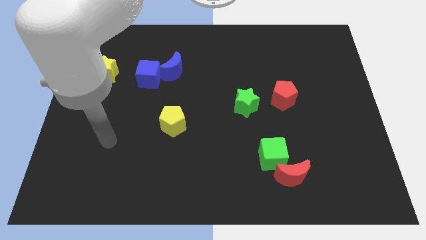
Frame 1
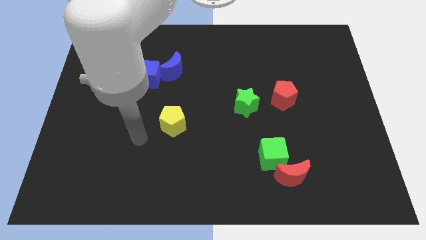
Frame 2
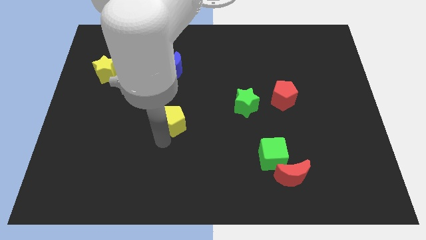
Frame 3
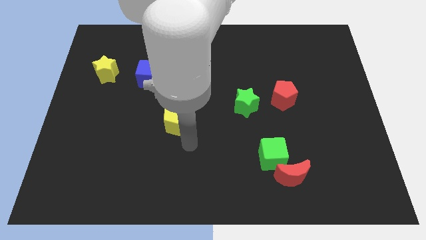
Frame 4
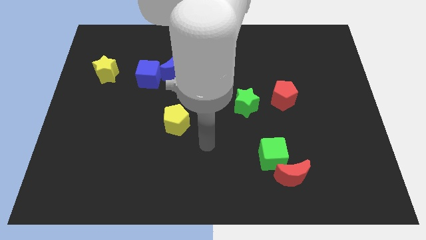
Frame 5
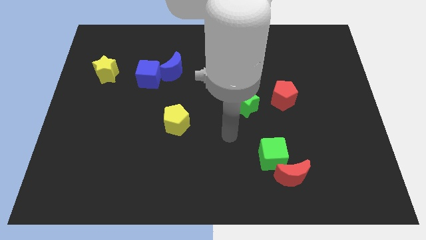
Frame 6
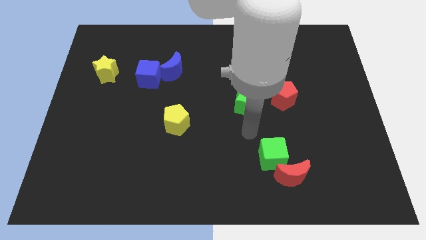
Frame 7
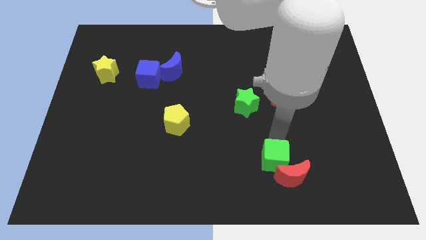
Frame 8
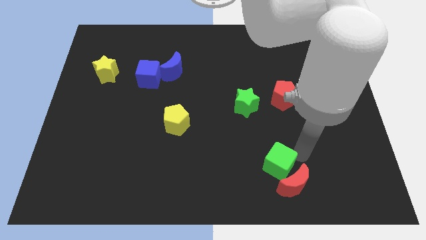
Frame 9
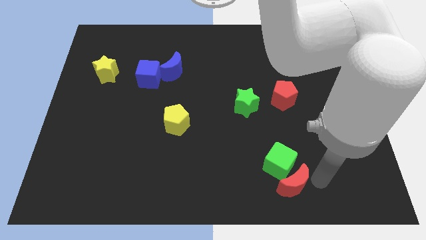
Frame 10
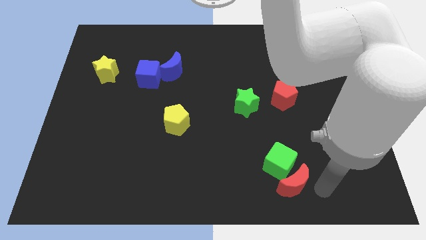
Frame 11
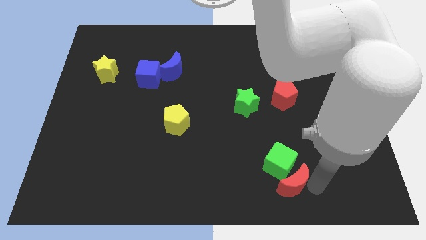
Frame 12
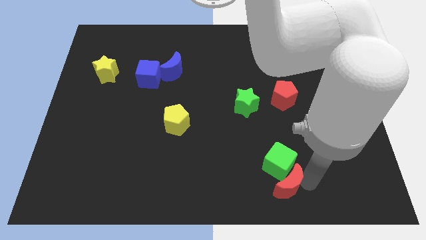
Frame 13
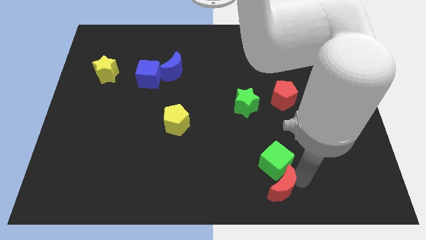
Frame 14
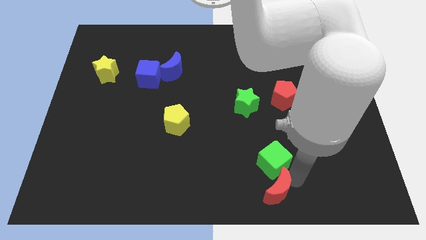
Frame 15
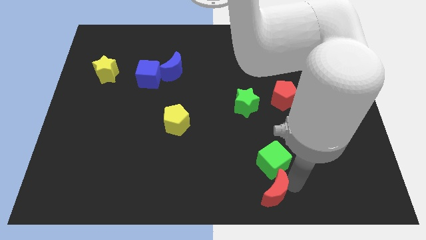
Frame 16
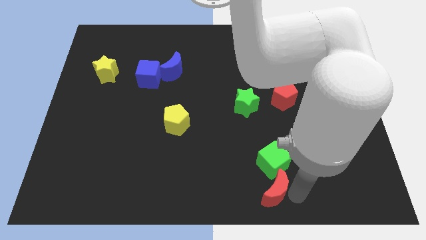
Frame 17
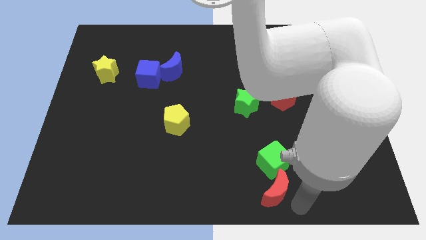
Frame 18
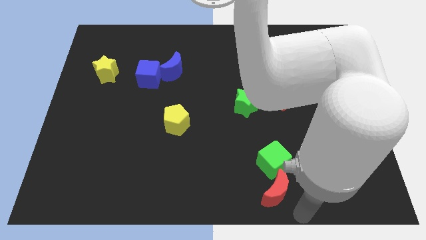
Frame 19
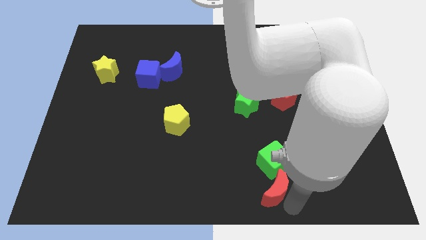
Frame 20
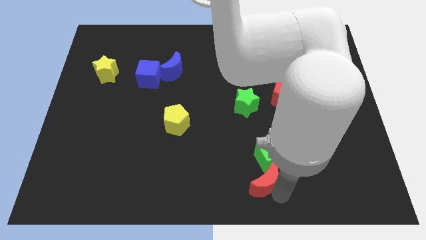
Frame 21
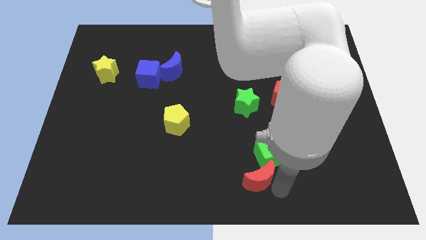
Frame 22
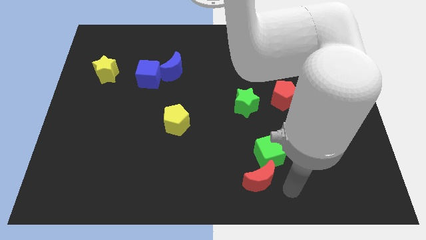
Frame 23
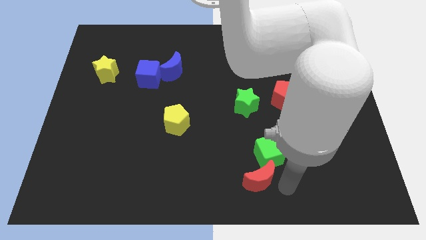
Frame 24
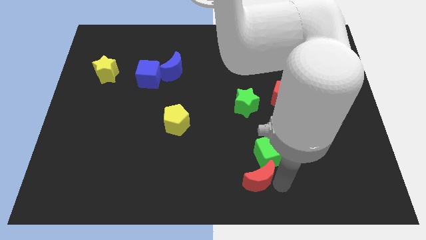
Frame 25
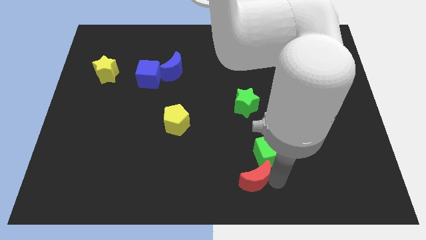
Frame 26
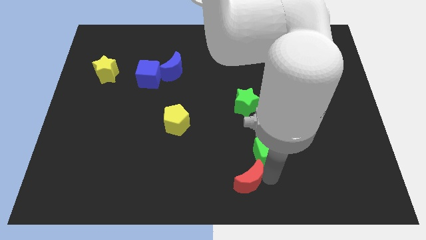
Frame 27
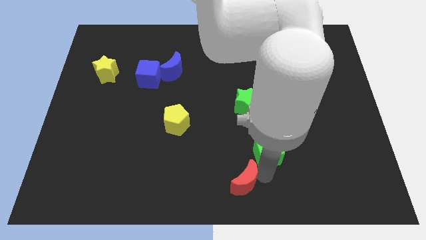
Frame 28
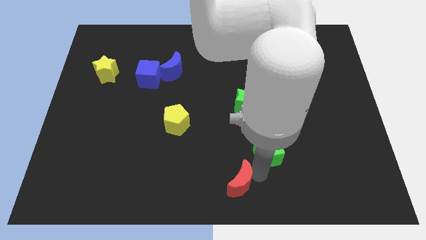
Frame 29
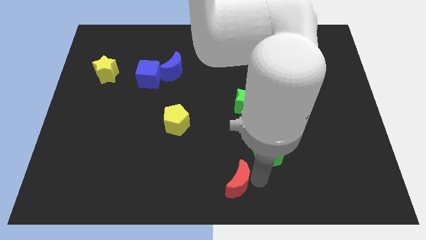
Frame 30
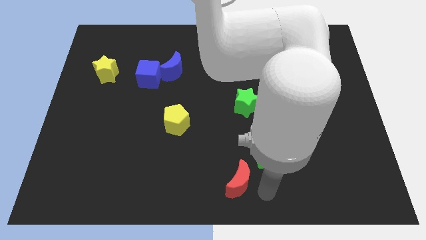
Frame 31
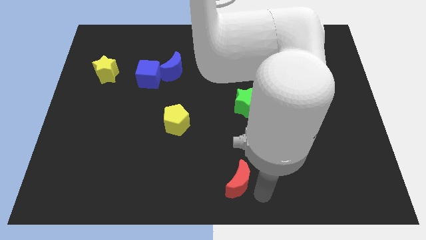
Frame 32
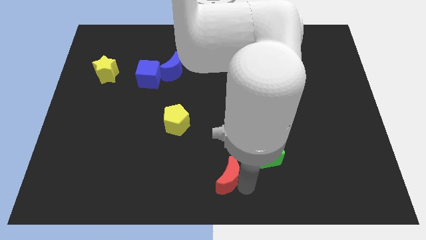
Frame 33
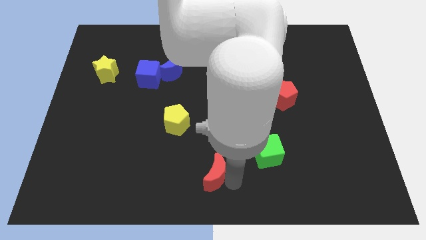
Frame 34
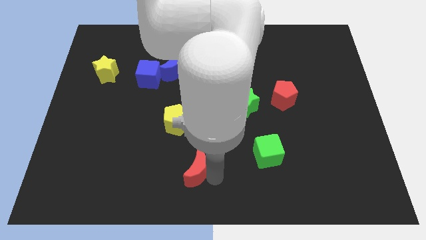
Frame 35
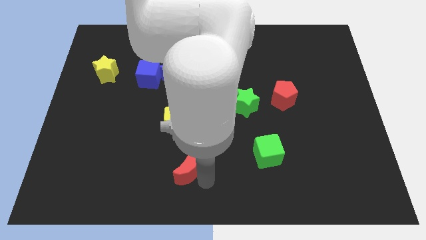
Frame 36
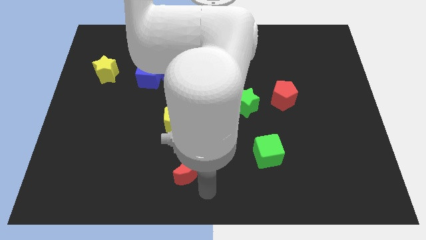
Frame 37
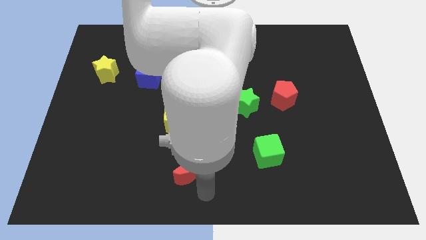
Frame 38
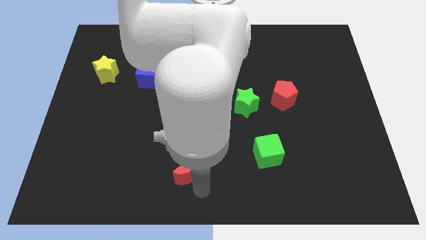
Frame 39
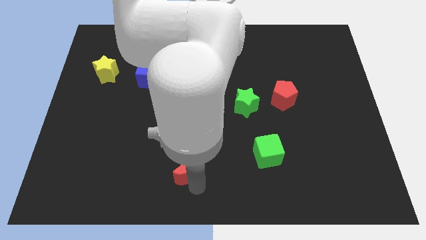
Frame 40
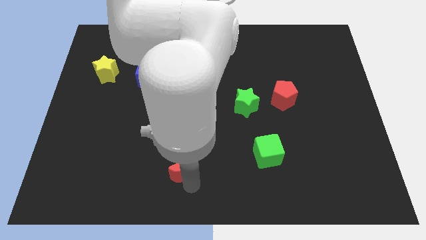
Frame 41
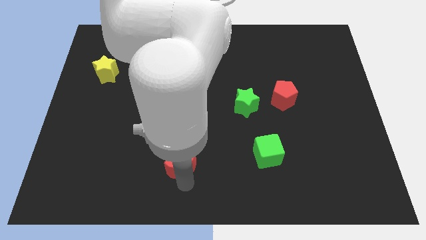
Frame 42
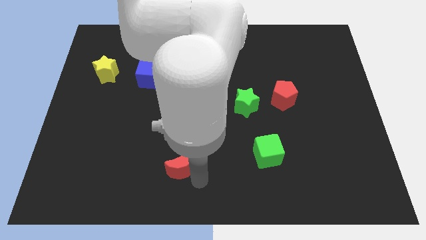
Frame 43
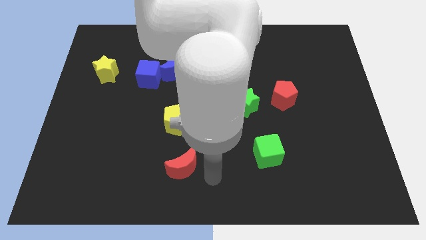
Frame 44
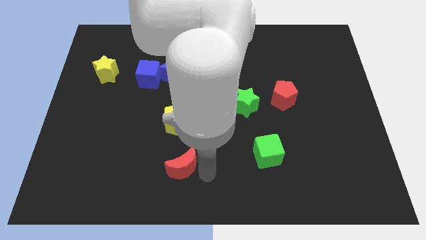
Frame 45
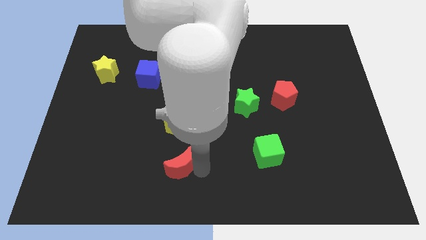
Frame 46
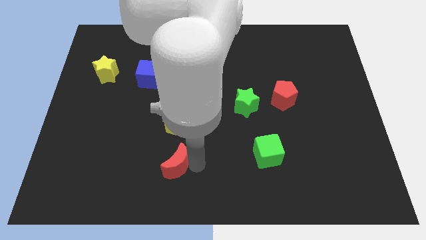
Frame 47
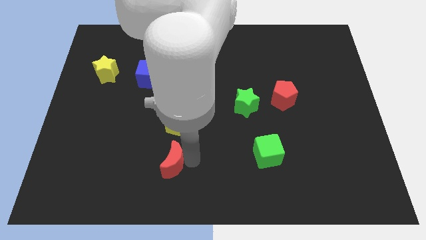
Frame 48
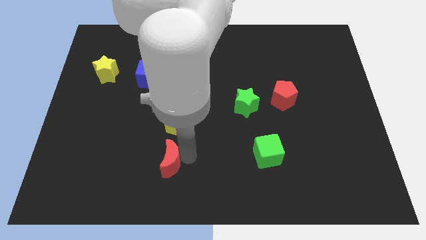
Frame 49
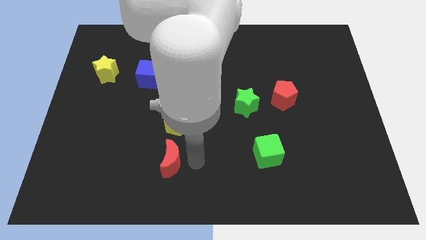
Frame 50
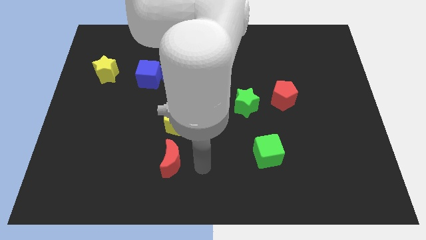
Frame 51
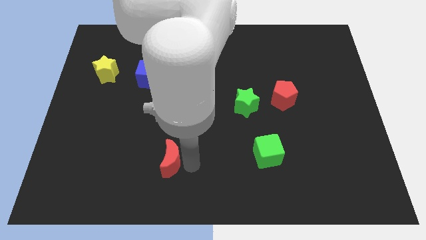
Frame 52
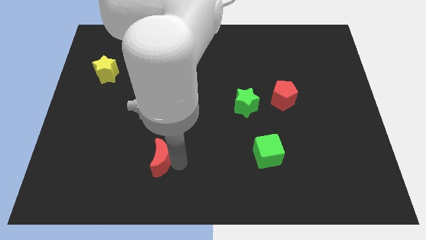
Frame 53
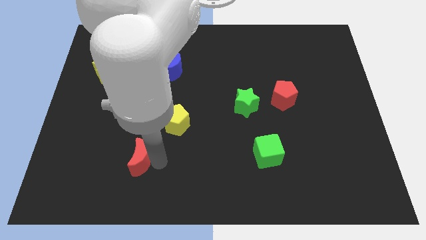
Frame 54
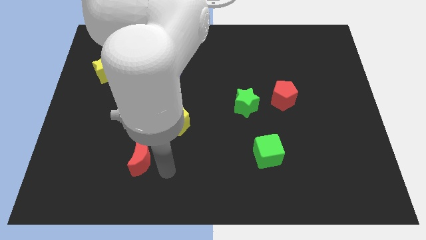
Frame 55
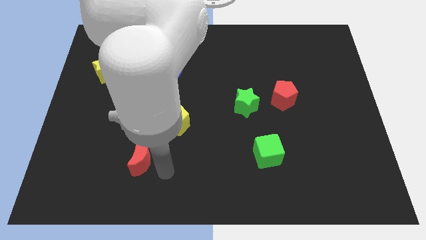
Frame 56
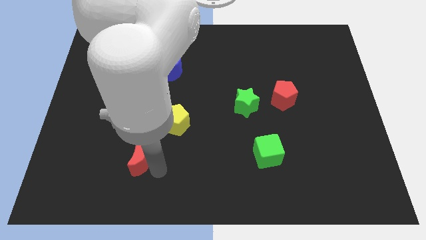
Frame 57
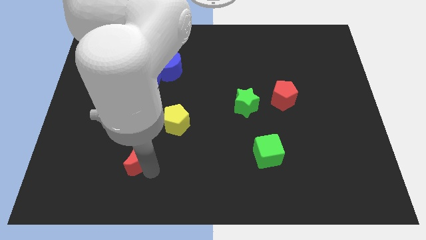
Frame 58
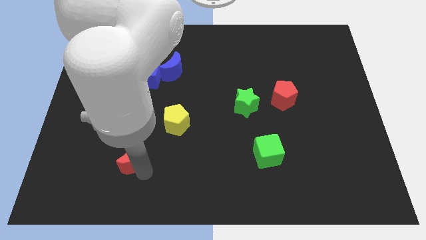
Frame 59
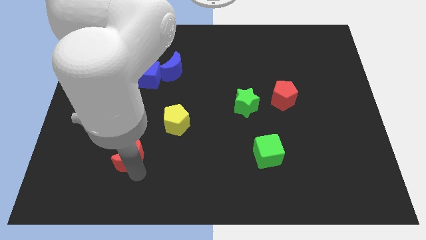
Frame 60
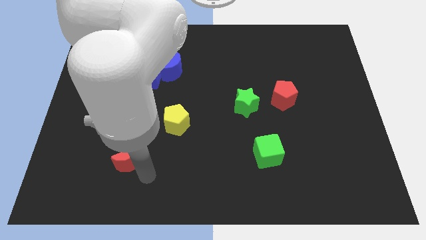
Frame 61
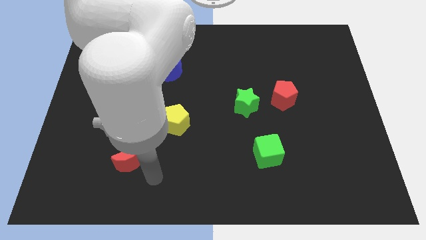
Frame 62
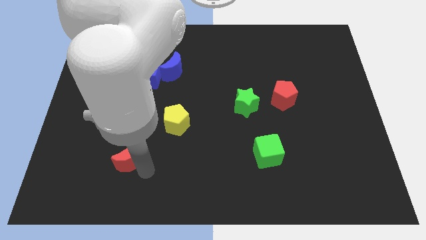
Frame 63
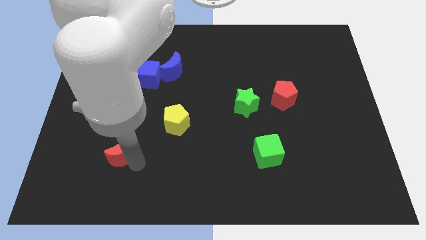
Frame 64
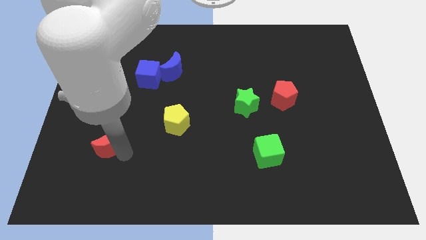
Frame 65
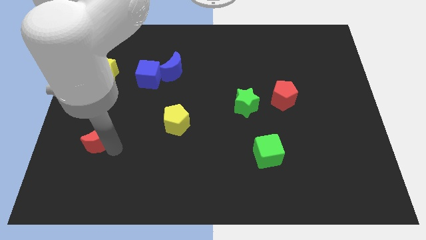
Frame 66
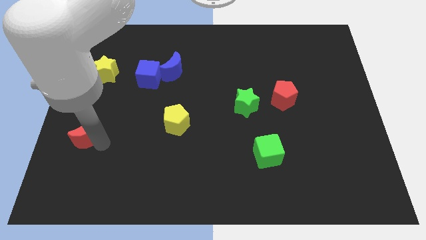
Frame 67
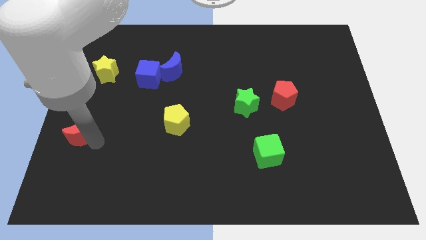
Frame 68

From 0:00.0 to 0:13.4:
push the red moon to the left side of the board

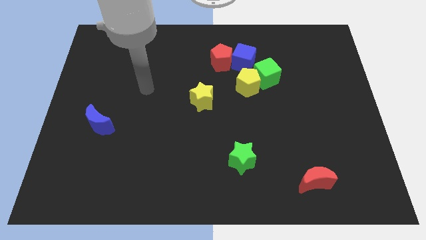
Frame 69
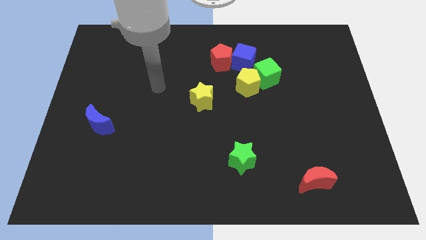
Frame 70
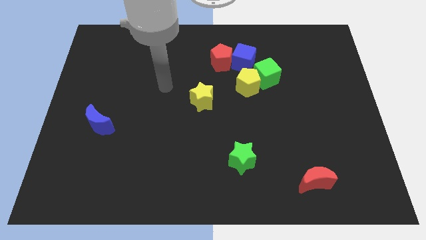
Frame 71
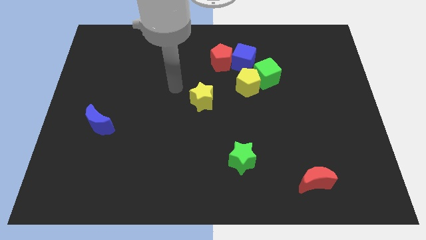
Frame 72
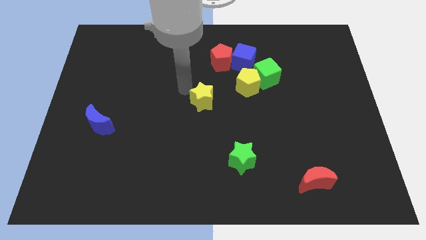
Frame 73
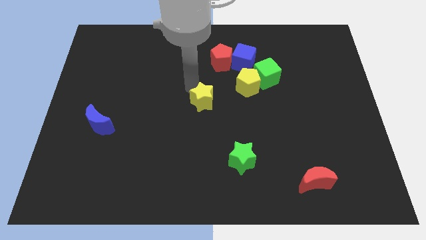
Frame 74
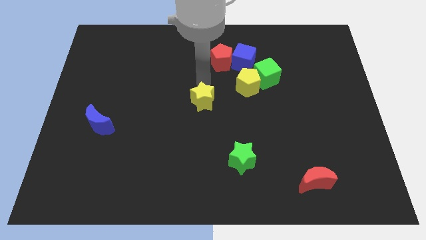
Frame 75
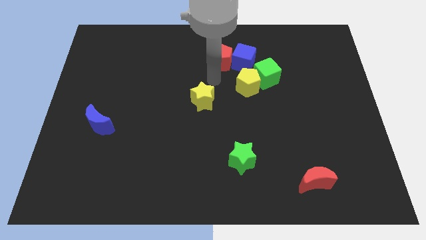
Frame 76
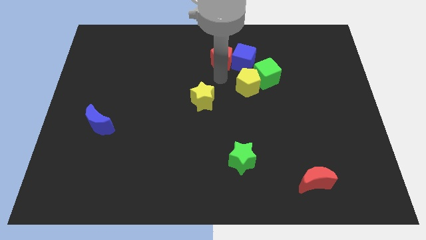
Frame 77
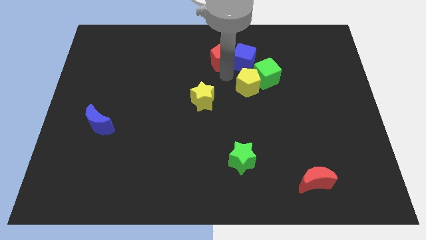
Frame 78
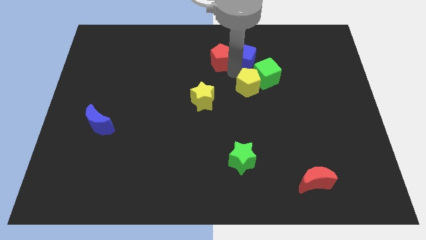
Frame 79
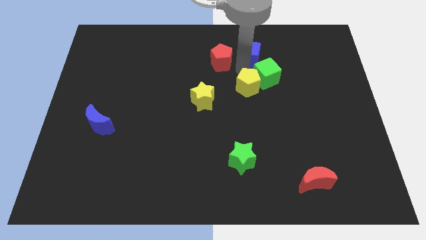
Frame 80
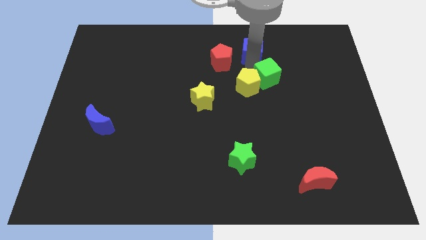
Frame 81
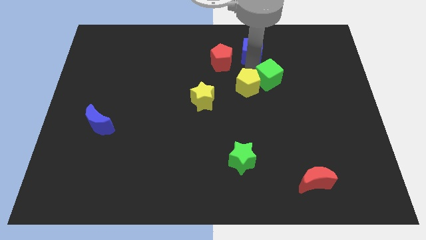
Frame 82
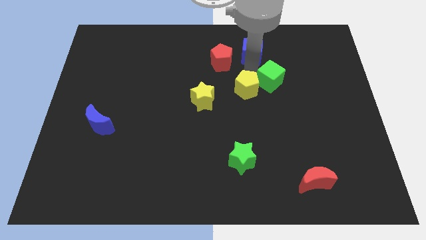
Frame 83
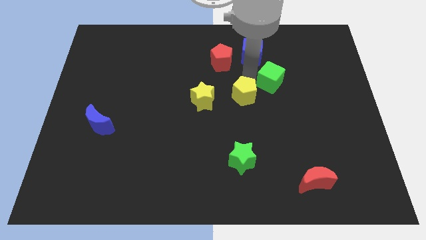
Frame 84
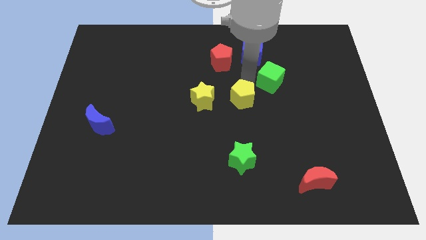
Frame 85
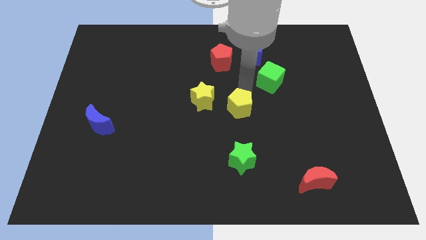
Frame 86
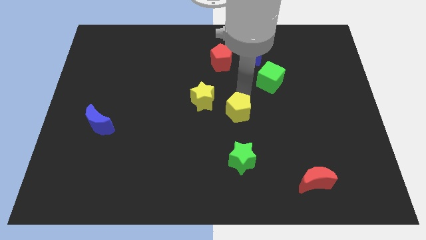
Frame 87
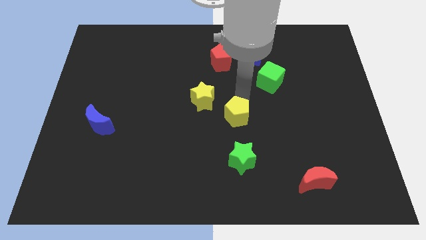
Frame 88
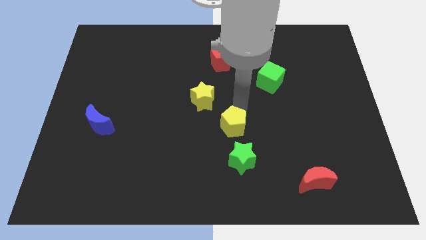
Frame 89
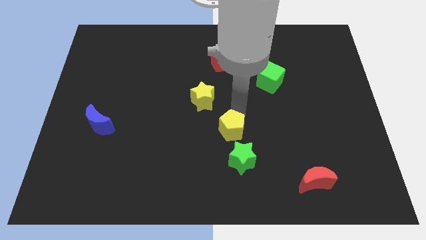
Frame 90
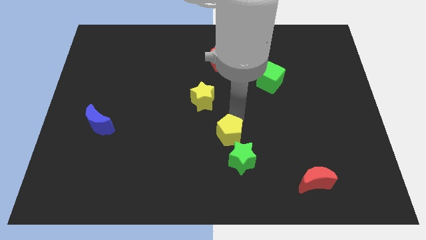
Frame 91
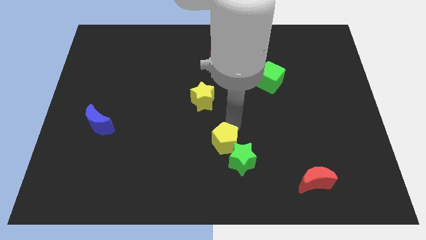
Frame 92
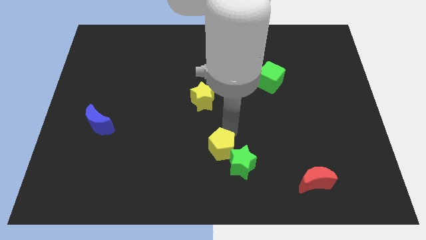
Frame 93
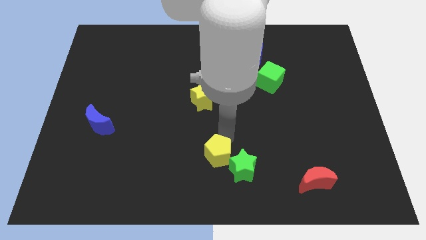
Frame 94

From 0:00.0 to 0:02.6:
slide the yellow pentagon to the bottom side
